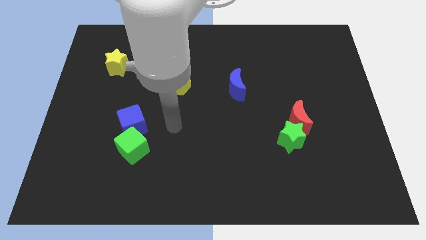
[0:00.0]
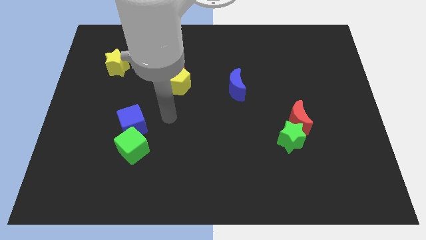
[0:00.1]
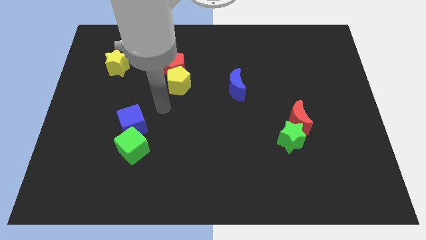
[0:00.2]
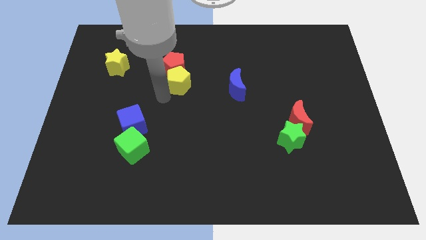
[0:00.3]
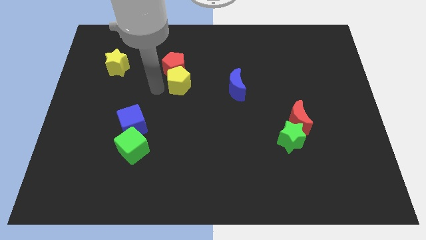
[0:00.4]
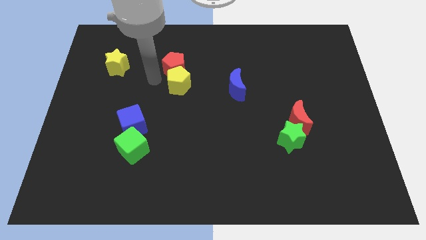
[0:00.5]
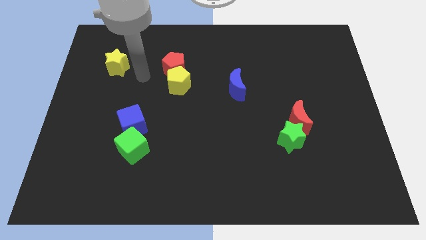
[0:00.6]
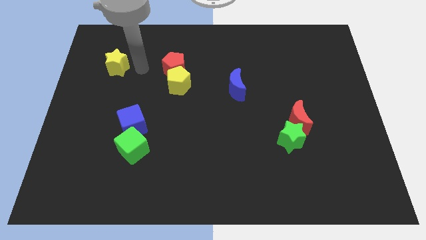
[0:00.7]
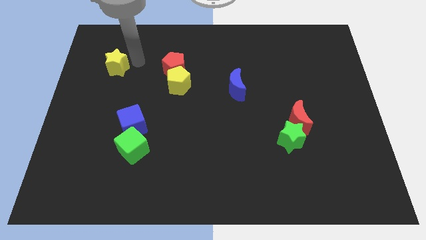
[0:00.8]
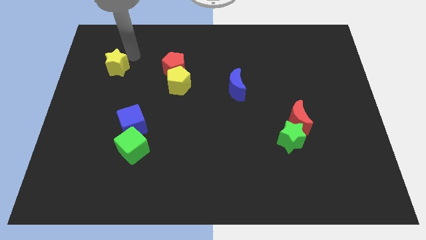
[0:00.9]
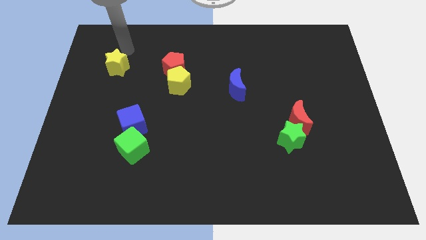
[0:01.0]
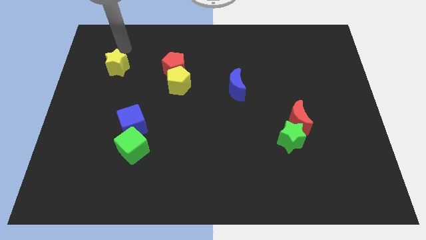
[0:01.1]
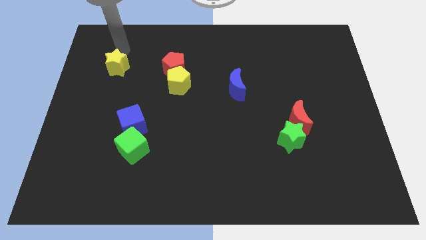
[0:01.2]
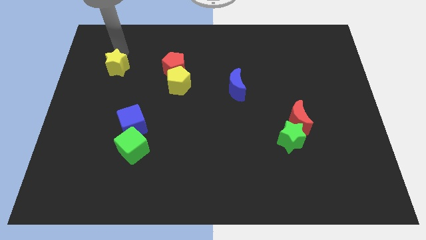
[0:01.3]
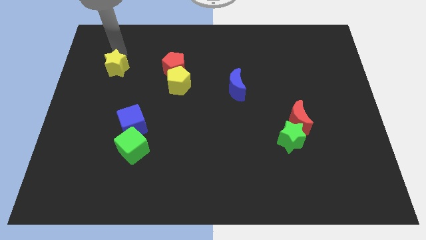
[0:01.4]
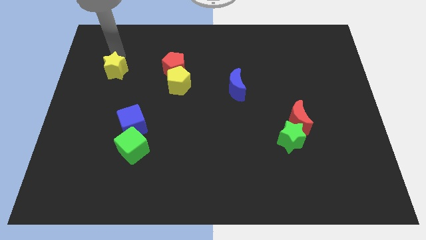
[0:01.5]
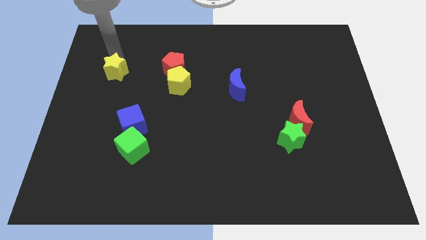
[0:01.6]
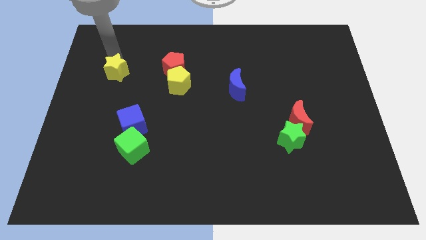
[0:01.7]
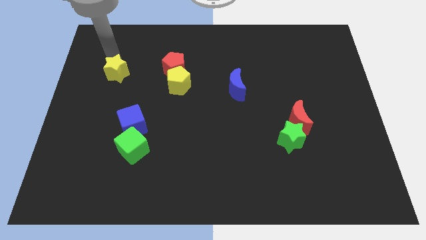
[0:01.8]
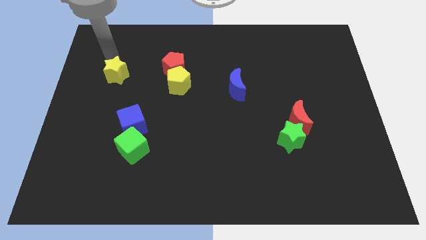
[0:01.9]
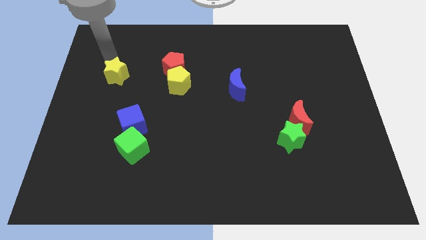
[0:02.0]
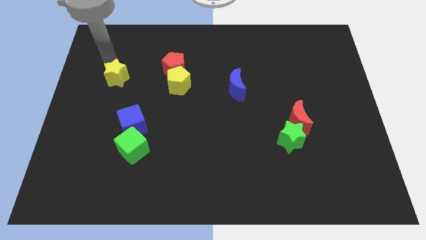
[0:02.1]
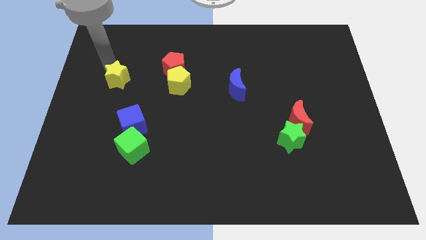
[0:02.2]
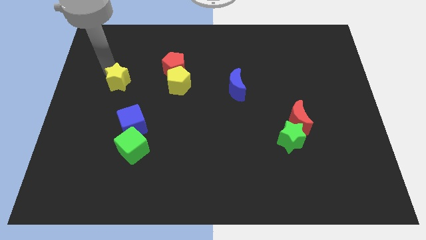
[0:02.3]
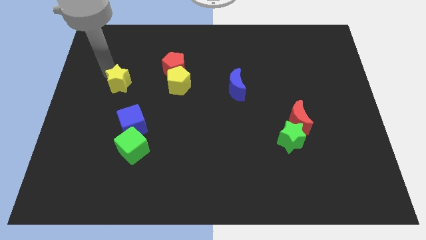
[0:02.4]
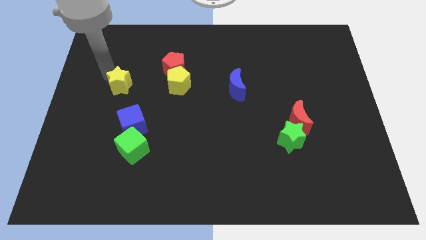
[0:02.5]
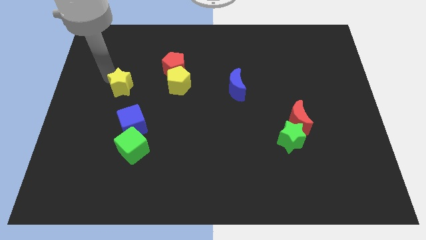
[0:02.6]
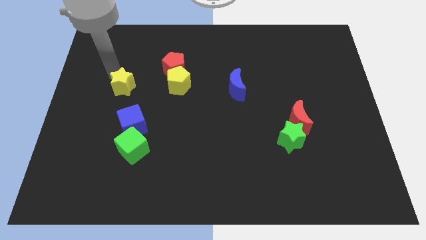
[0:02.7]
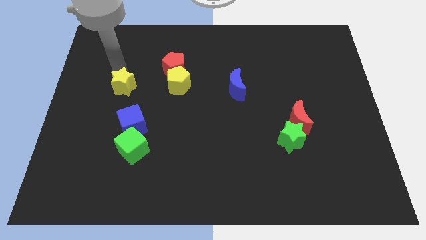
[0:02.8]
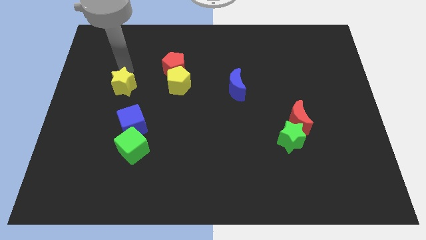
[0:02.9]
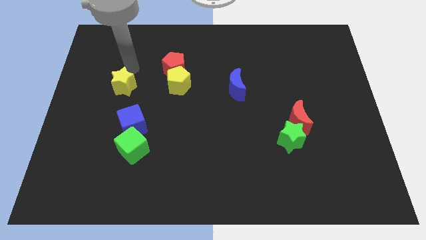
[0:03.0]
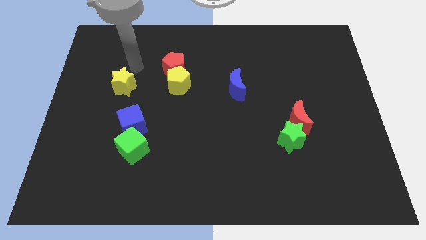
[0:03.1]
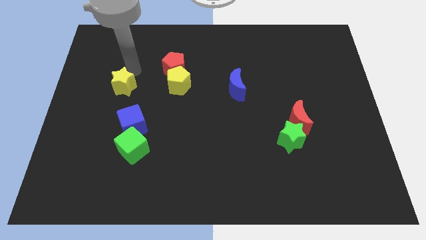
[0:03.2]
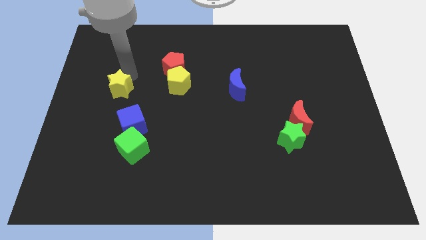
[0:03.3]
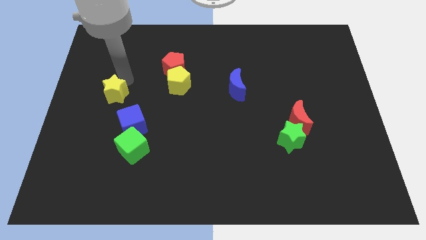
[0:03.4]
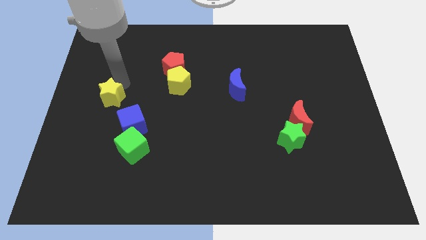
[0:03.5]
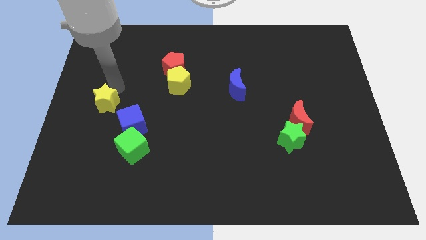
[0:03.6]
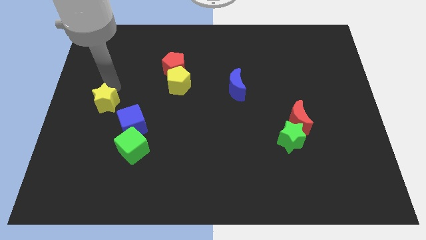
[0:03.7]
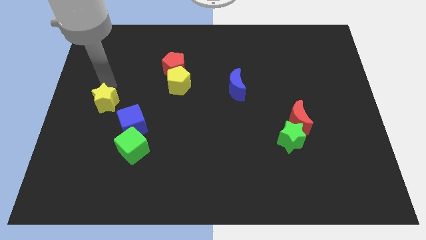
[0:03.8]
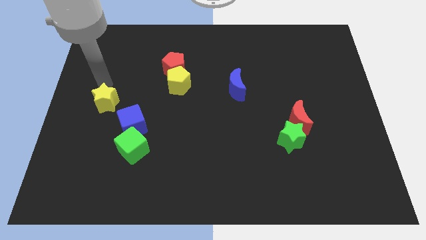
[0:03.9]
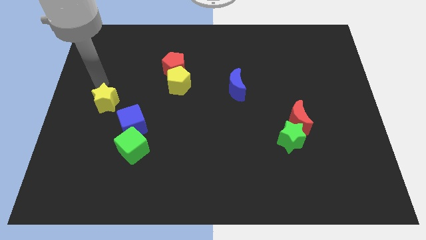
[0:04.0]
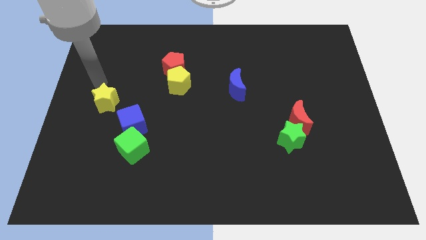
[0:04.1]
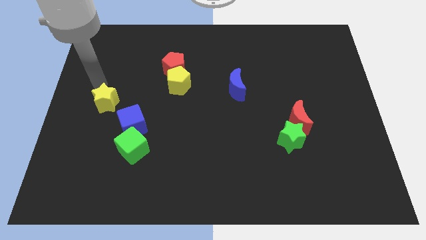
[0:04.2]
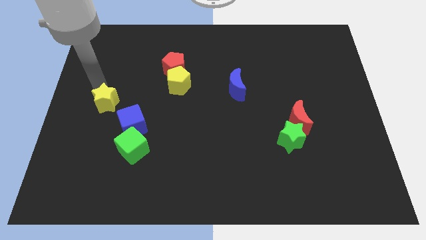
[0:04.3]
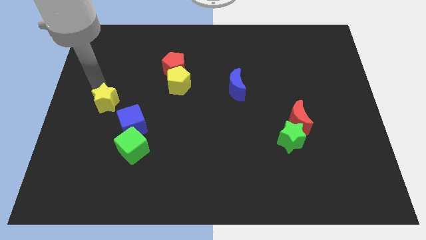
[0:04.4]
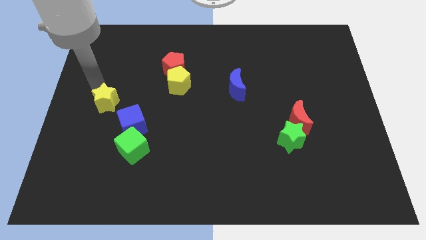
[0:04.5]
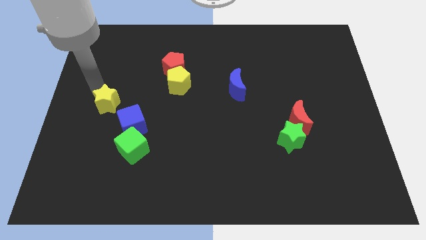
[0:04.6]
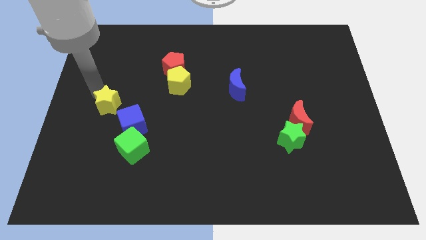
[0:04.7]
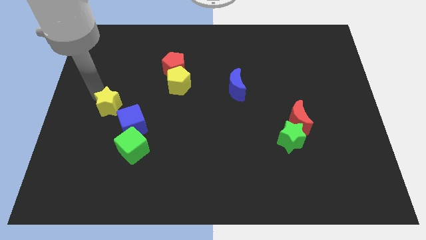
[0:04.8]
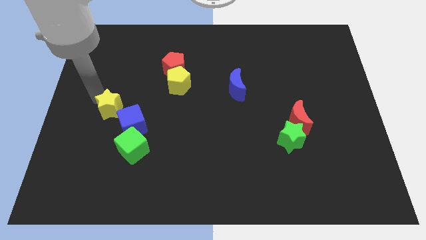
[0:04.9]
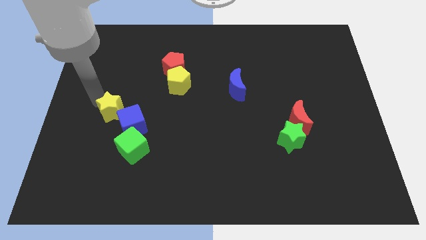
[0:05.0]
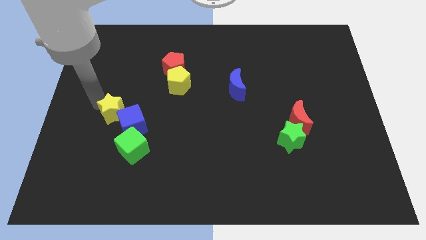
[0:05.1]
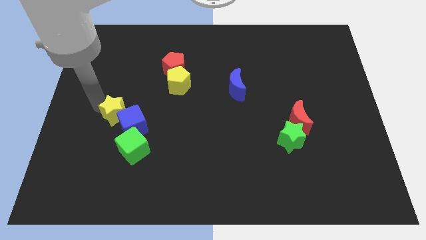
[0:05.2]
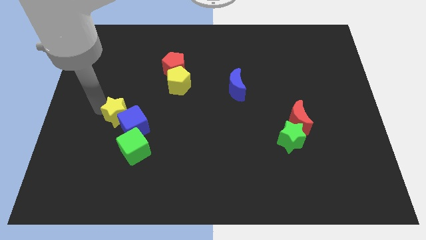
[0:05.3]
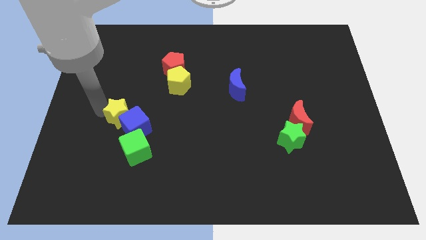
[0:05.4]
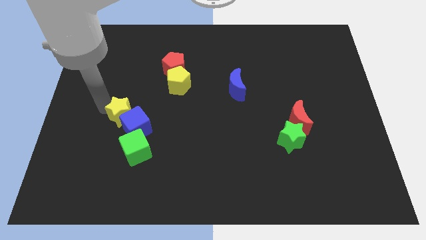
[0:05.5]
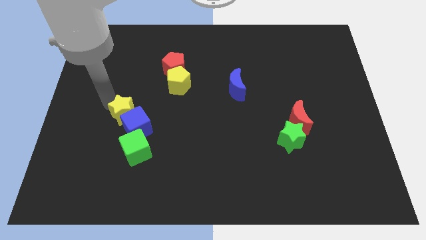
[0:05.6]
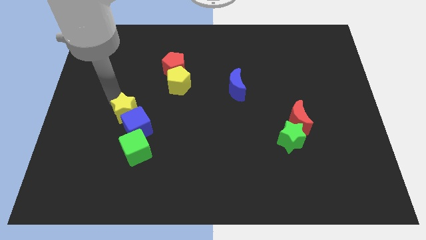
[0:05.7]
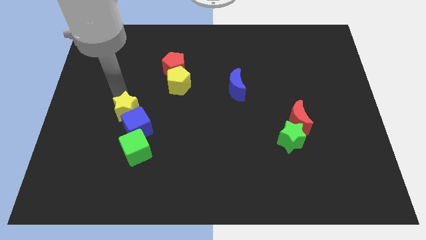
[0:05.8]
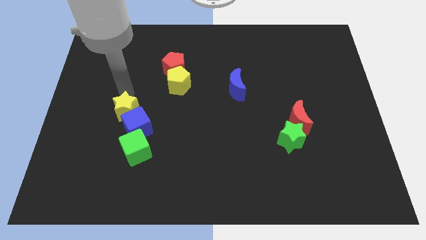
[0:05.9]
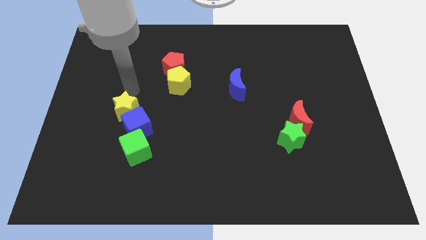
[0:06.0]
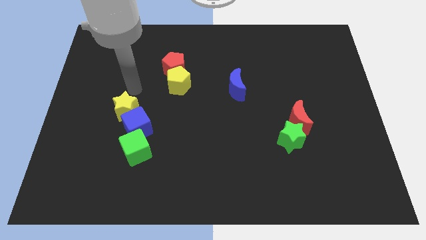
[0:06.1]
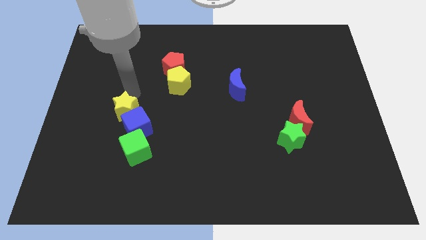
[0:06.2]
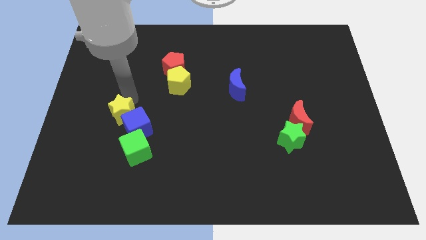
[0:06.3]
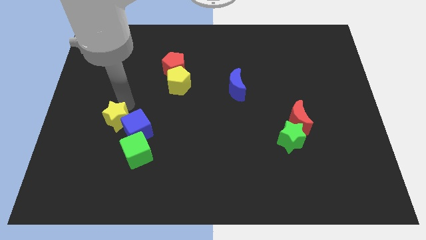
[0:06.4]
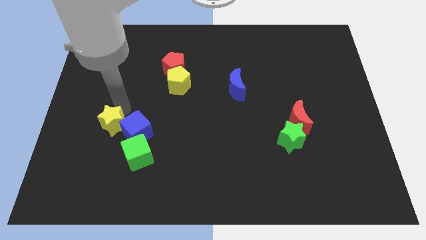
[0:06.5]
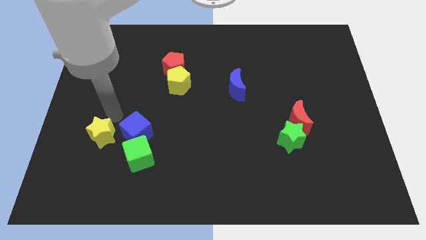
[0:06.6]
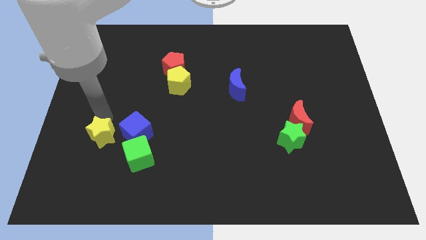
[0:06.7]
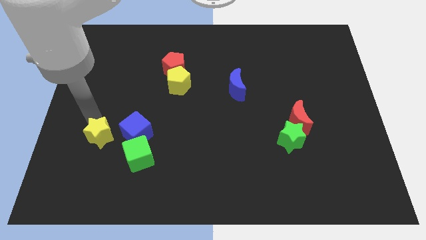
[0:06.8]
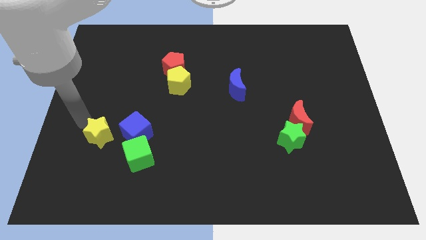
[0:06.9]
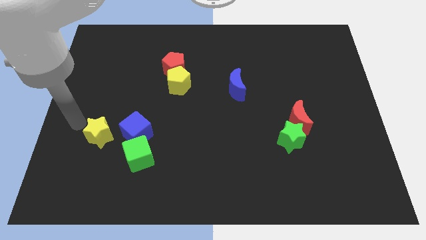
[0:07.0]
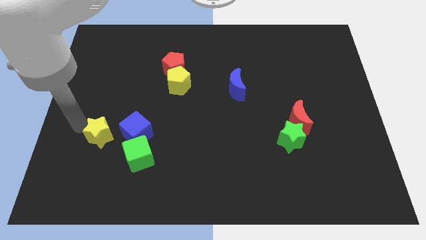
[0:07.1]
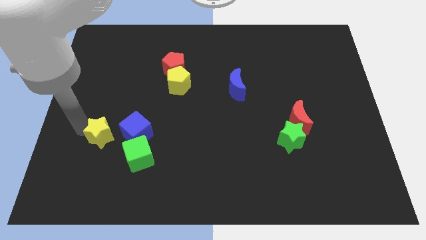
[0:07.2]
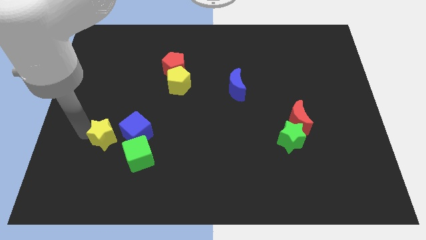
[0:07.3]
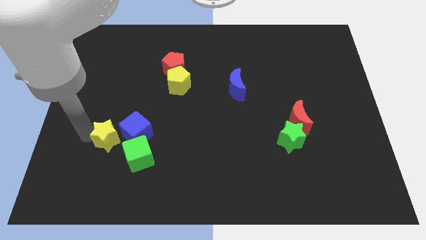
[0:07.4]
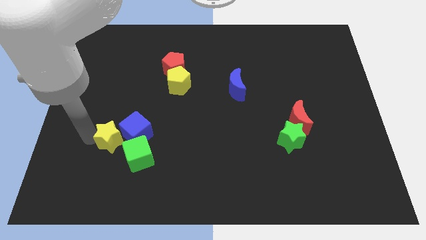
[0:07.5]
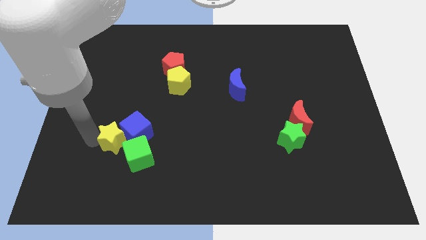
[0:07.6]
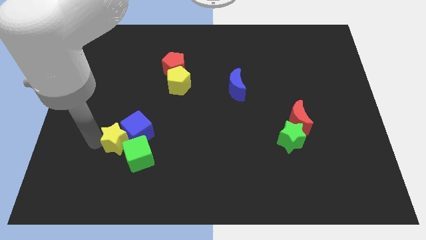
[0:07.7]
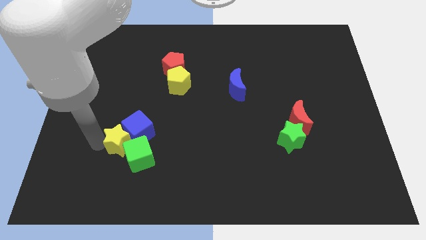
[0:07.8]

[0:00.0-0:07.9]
push the yellow star close to the green cube
